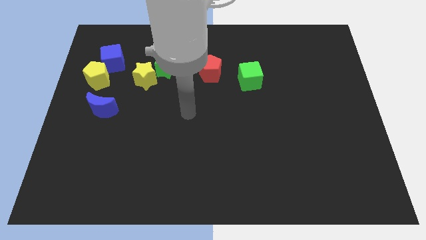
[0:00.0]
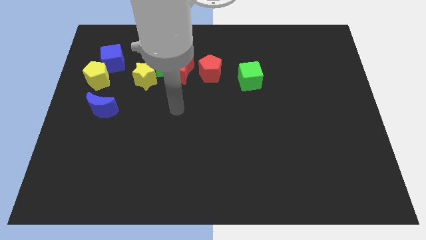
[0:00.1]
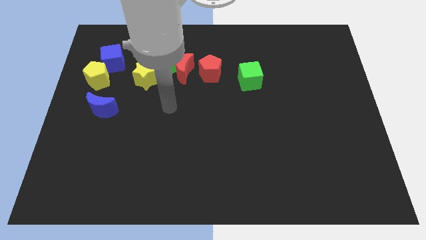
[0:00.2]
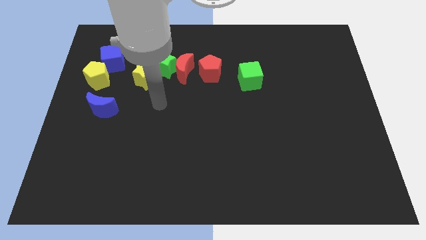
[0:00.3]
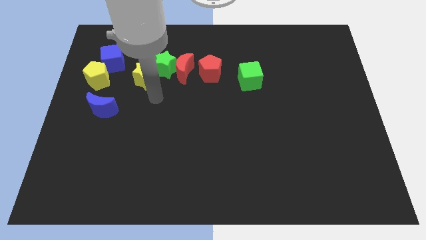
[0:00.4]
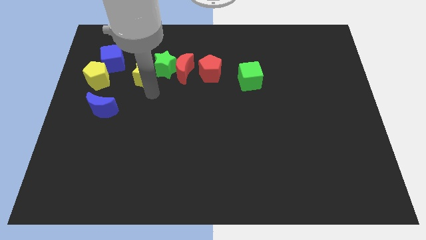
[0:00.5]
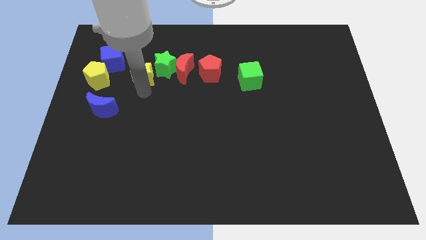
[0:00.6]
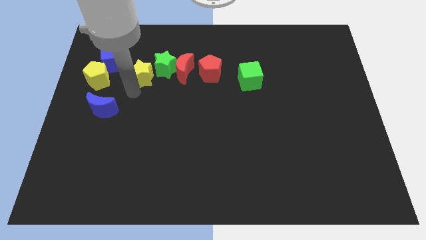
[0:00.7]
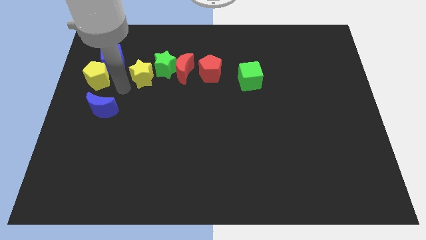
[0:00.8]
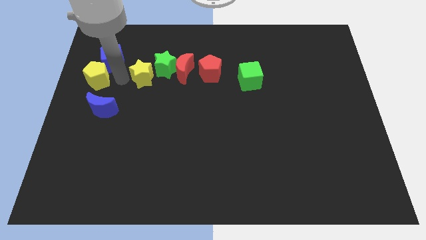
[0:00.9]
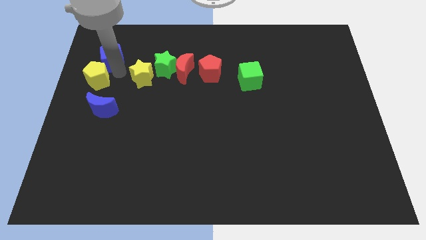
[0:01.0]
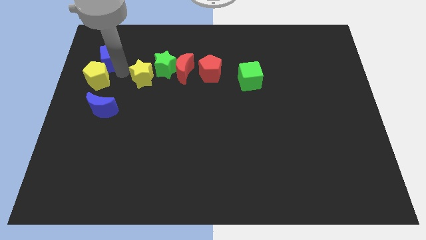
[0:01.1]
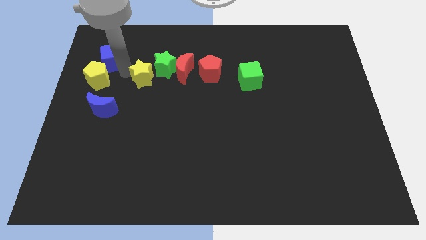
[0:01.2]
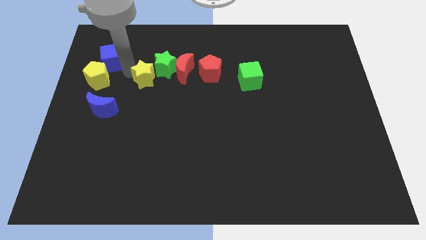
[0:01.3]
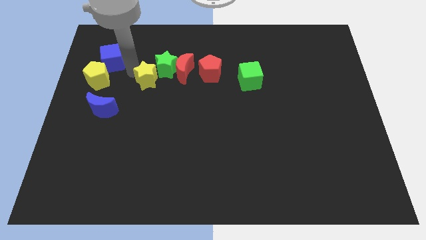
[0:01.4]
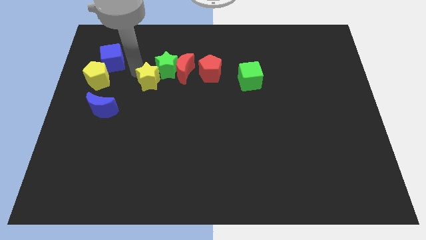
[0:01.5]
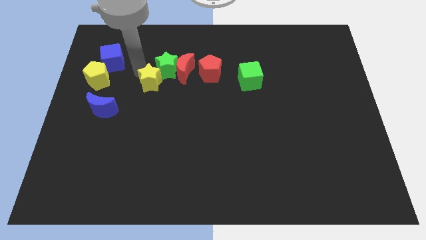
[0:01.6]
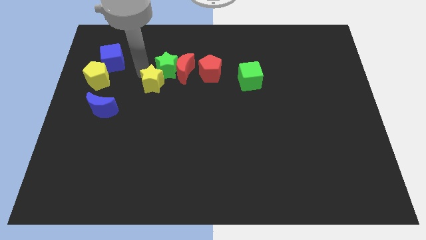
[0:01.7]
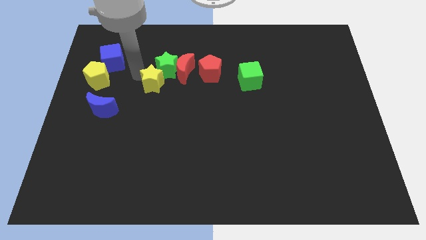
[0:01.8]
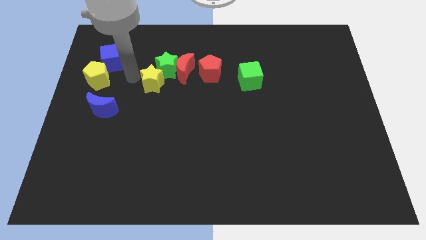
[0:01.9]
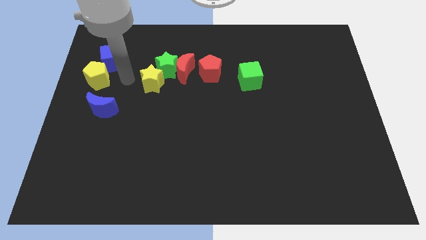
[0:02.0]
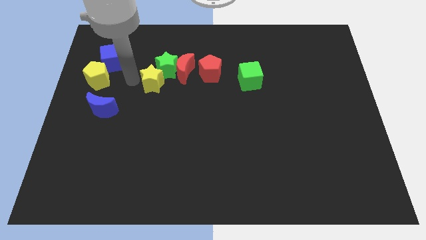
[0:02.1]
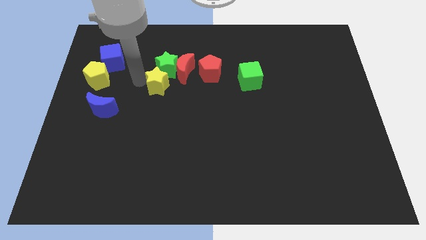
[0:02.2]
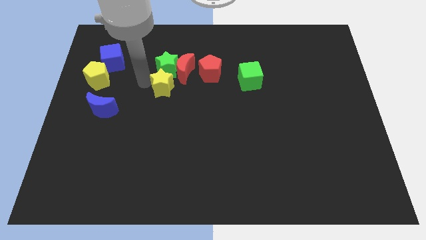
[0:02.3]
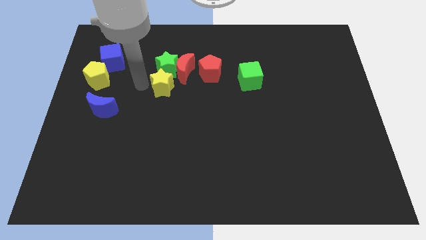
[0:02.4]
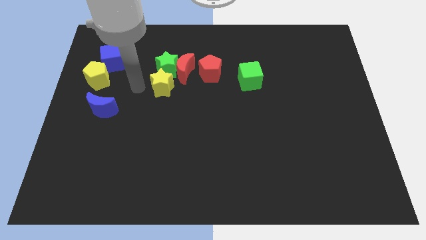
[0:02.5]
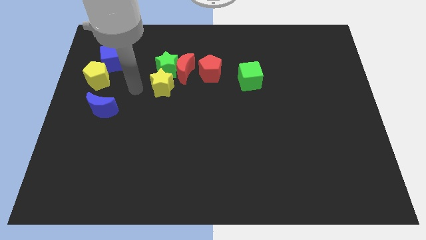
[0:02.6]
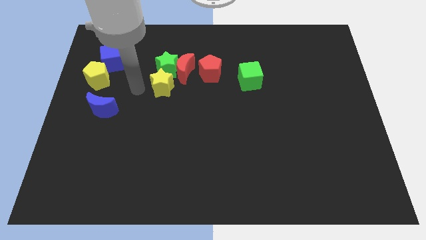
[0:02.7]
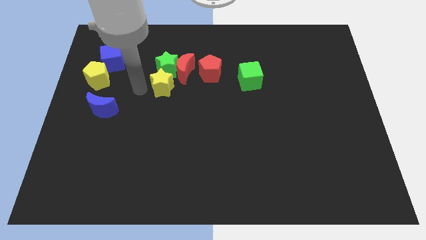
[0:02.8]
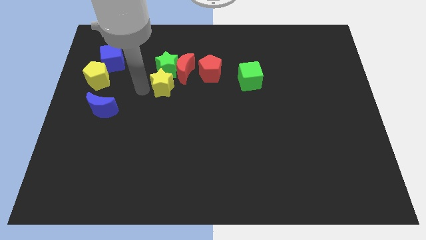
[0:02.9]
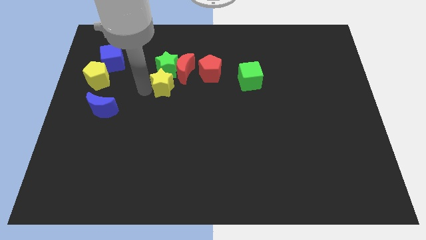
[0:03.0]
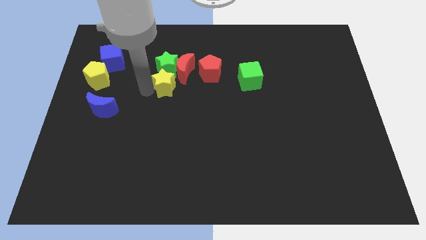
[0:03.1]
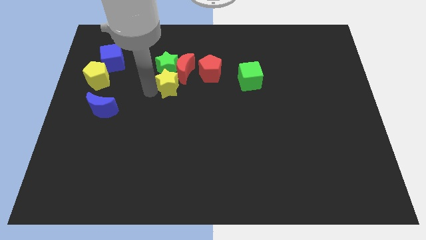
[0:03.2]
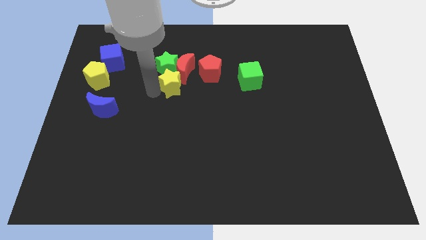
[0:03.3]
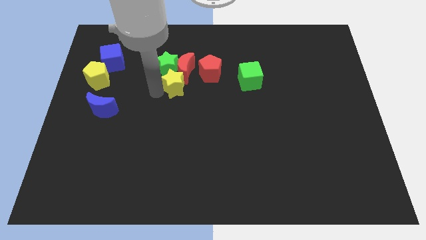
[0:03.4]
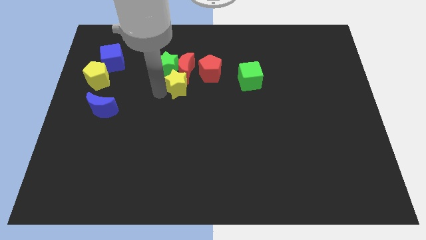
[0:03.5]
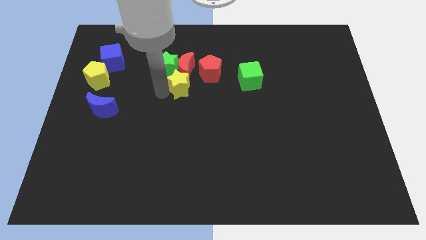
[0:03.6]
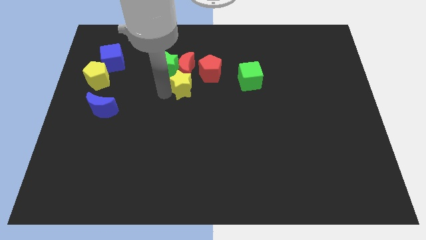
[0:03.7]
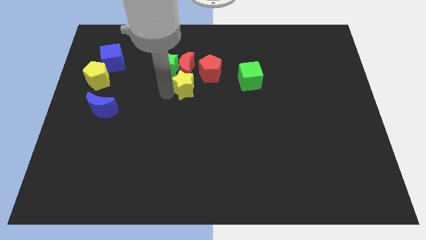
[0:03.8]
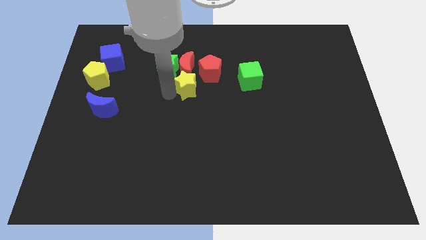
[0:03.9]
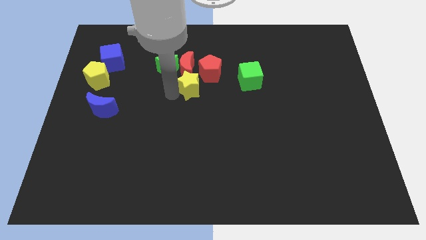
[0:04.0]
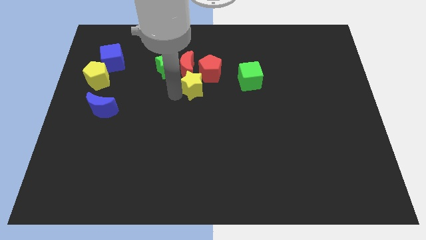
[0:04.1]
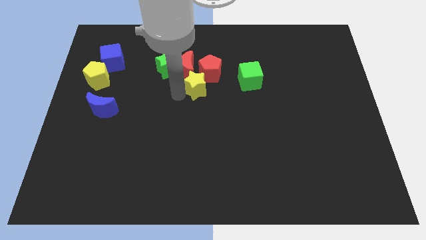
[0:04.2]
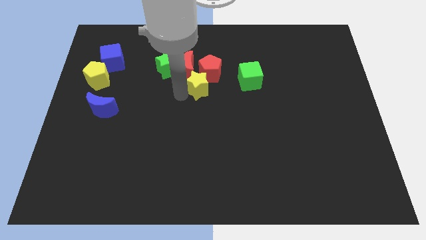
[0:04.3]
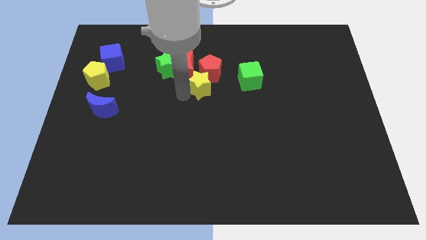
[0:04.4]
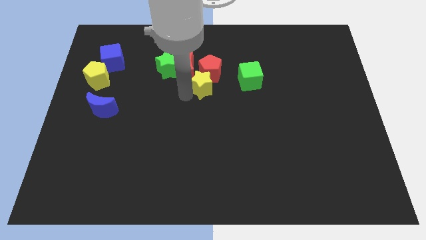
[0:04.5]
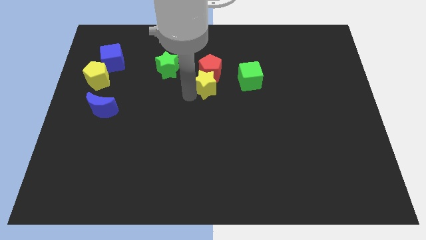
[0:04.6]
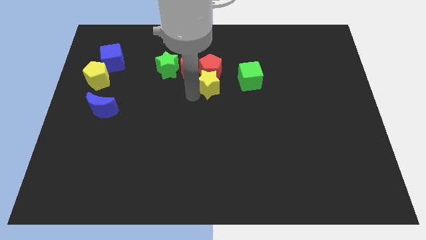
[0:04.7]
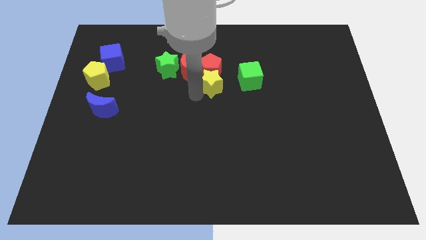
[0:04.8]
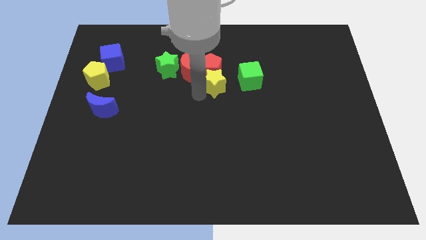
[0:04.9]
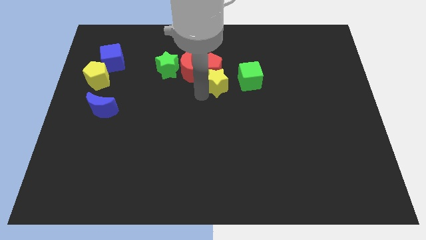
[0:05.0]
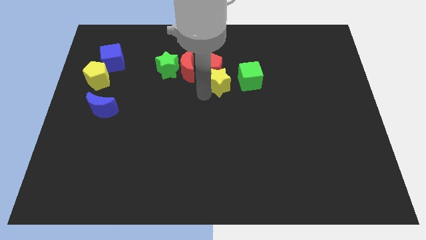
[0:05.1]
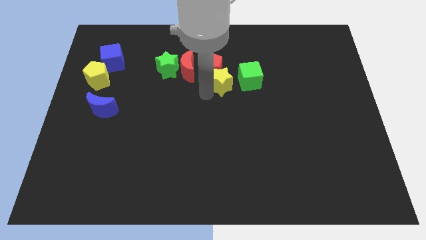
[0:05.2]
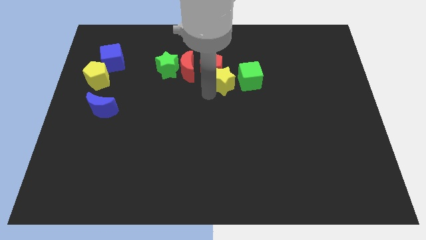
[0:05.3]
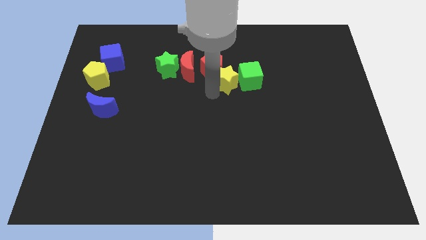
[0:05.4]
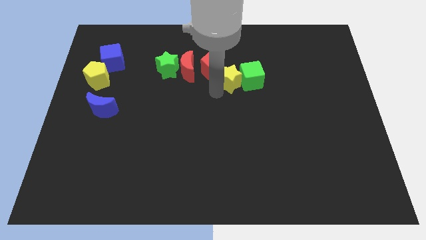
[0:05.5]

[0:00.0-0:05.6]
push the yellow star right of the red pentagon

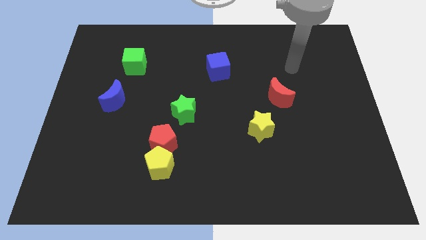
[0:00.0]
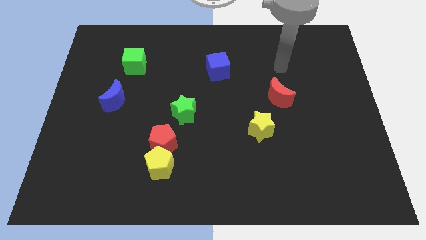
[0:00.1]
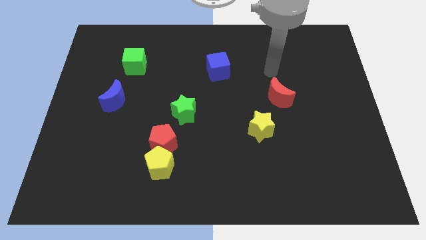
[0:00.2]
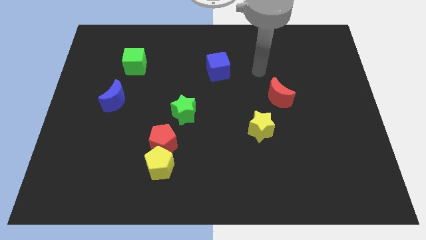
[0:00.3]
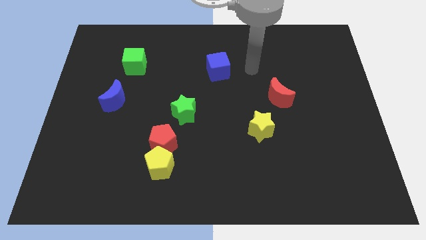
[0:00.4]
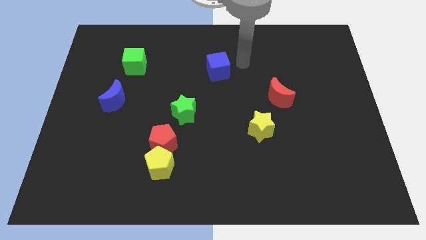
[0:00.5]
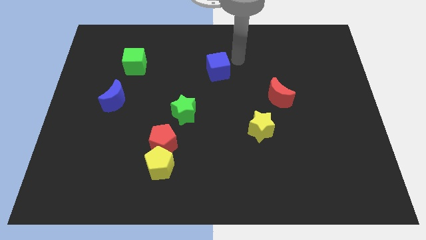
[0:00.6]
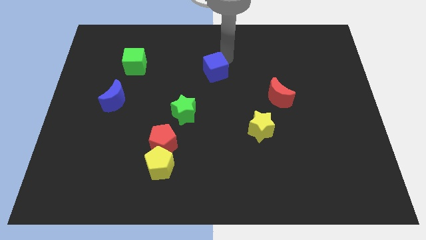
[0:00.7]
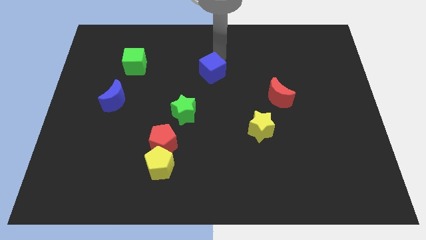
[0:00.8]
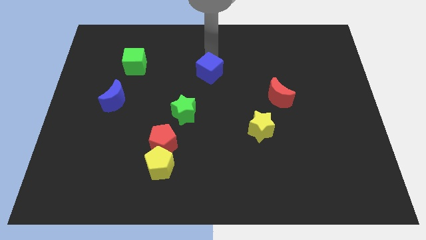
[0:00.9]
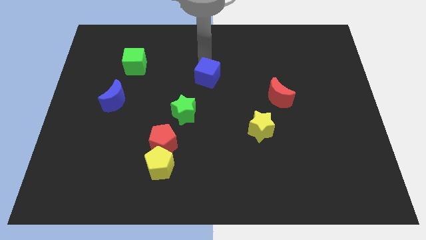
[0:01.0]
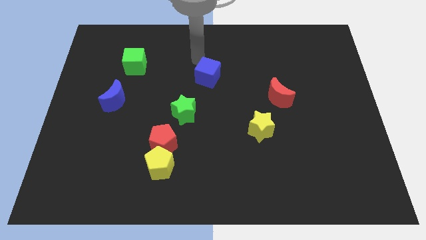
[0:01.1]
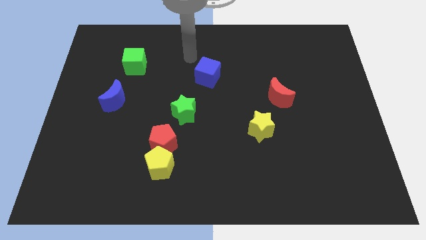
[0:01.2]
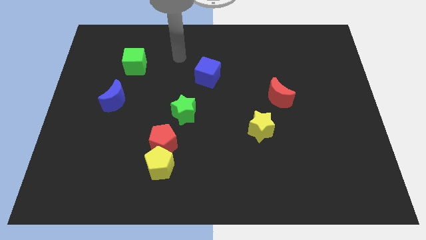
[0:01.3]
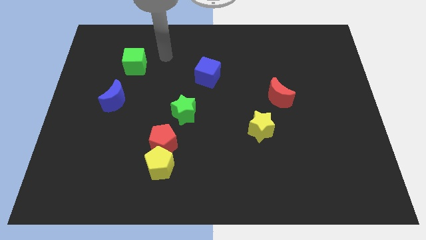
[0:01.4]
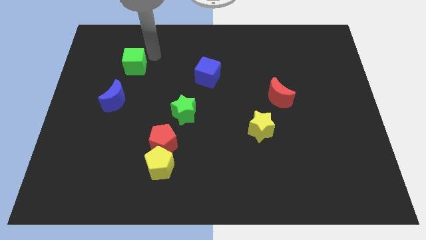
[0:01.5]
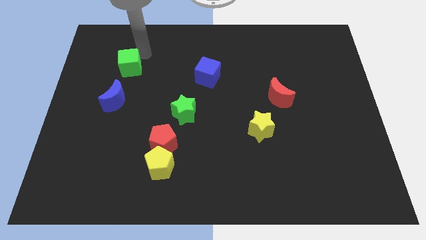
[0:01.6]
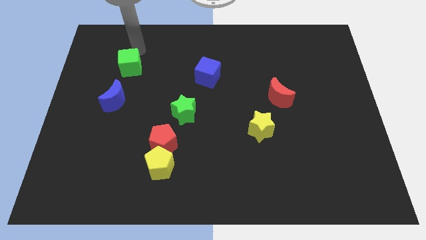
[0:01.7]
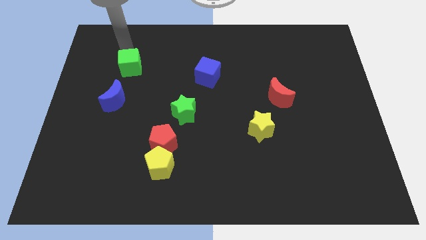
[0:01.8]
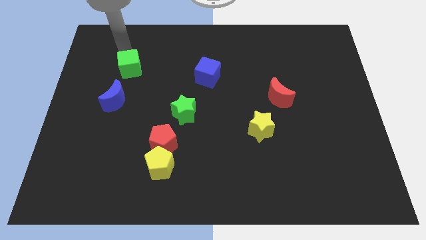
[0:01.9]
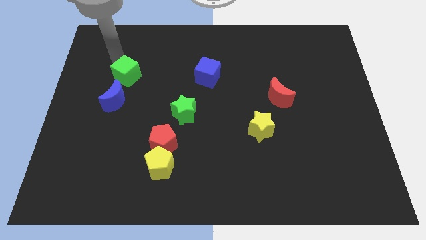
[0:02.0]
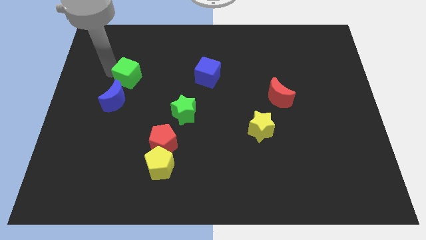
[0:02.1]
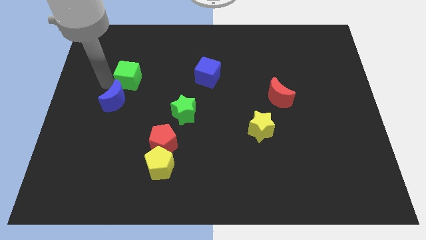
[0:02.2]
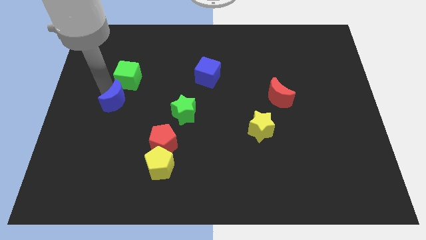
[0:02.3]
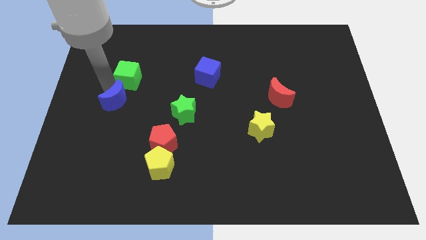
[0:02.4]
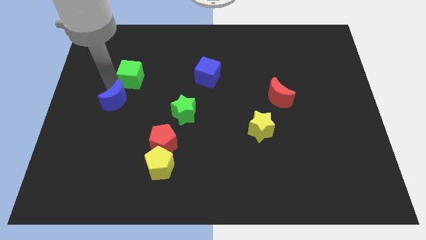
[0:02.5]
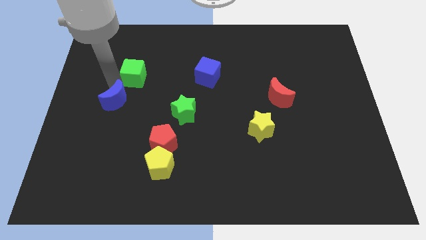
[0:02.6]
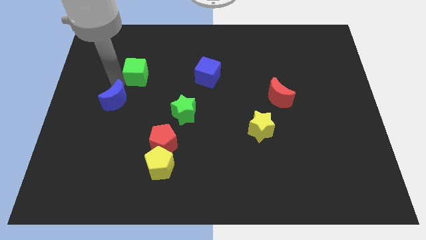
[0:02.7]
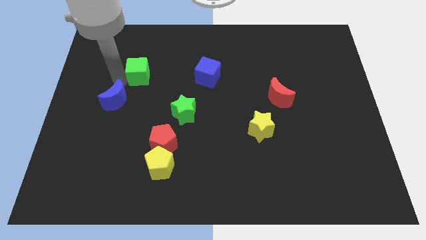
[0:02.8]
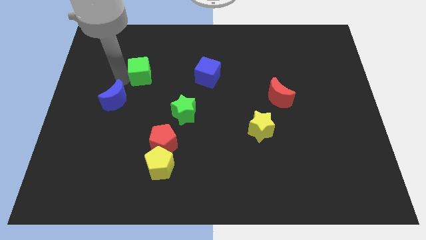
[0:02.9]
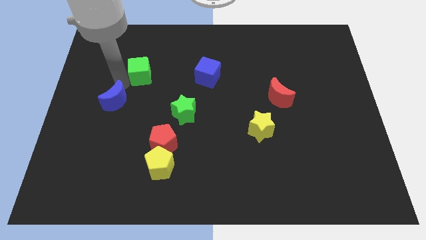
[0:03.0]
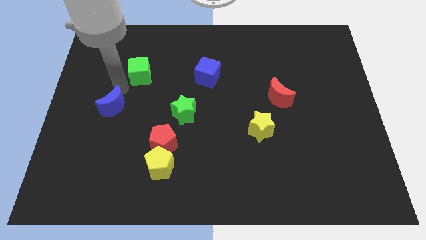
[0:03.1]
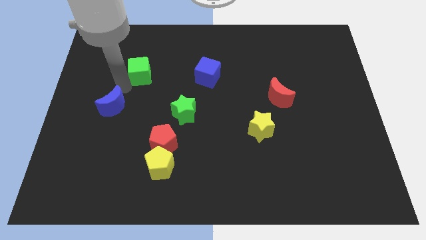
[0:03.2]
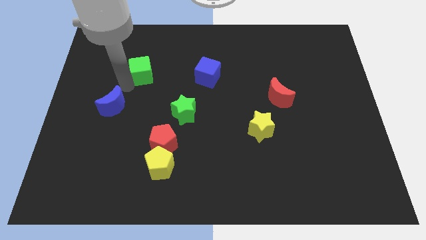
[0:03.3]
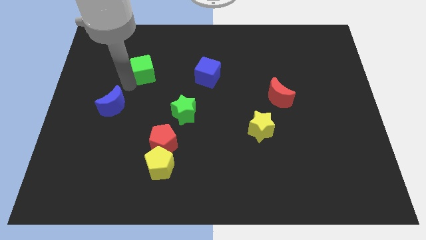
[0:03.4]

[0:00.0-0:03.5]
push the green cube to the left of the blue cube
